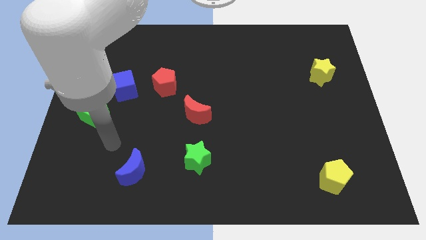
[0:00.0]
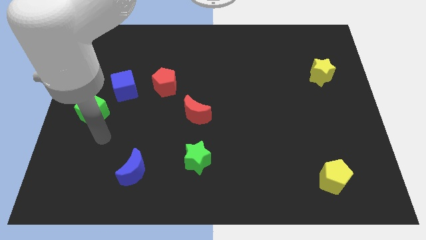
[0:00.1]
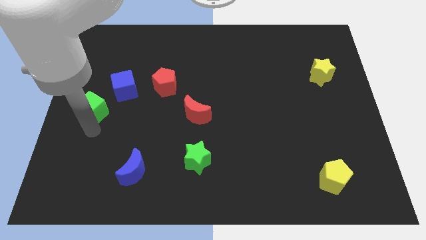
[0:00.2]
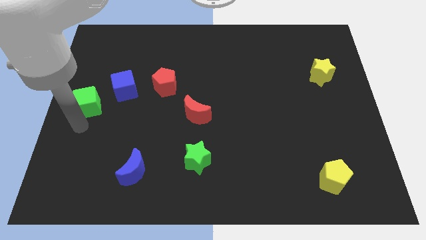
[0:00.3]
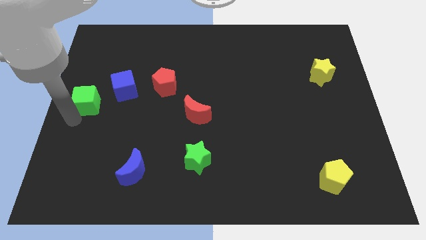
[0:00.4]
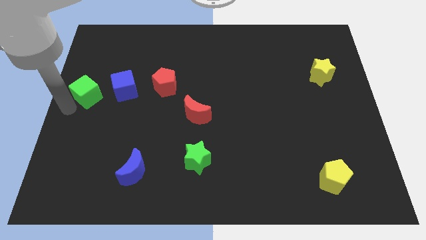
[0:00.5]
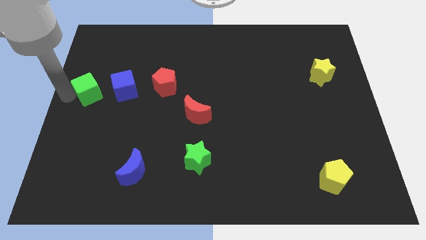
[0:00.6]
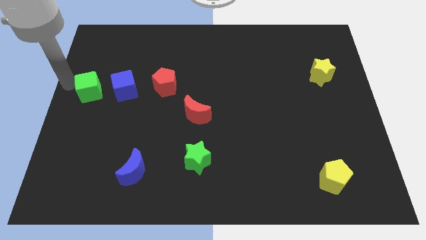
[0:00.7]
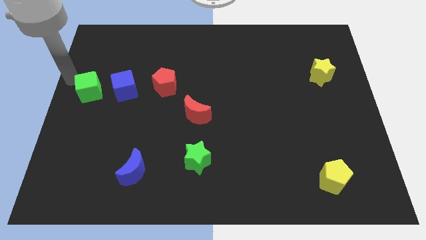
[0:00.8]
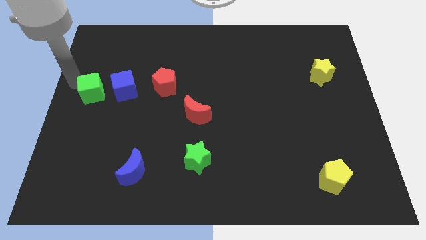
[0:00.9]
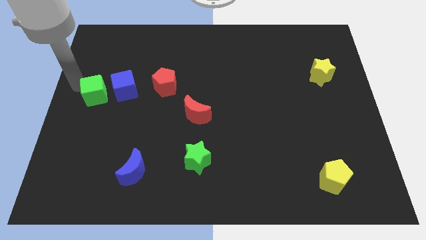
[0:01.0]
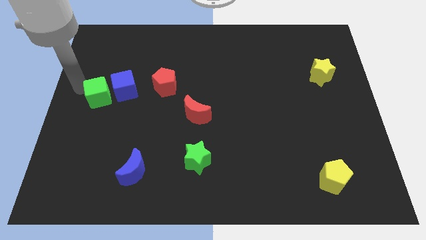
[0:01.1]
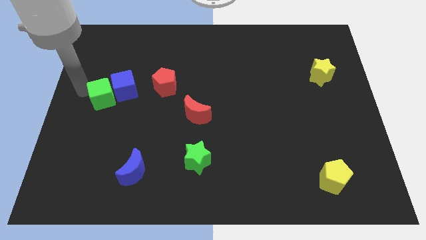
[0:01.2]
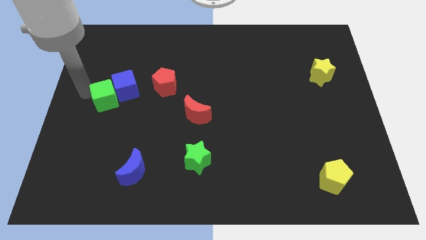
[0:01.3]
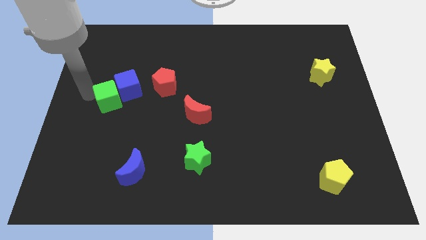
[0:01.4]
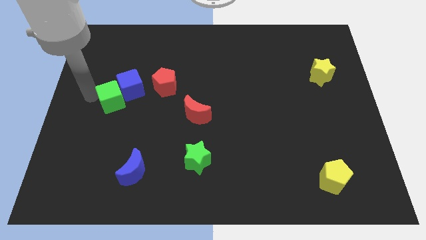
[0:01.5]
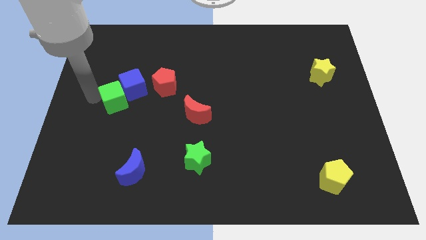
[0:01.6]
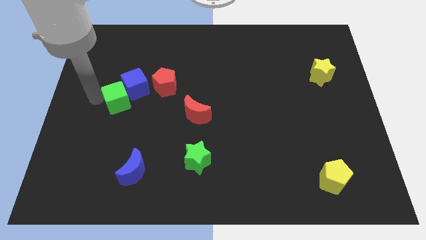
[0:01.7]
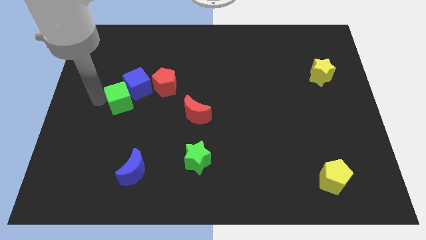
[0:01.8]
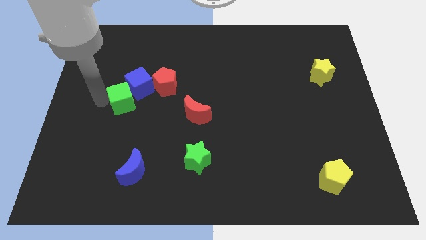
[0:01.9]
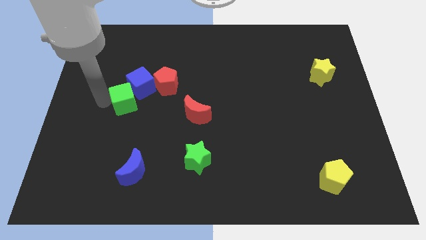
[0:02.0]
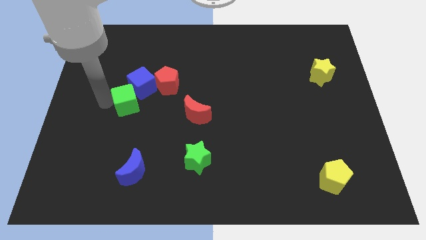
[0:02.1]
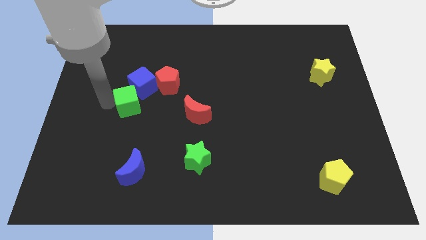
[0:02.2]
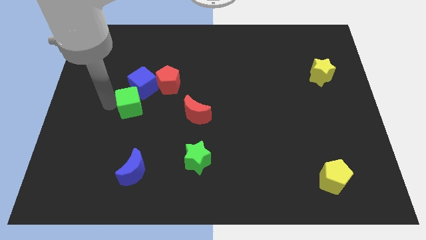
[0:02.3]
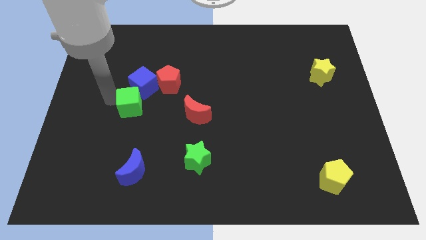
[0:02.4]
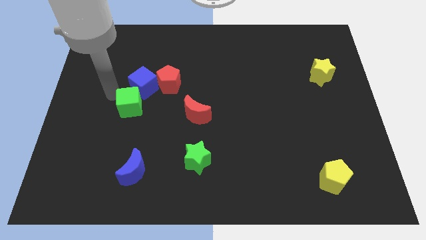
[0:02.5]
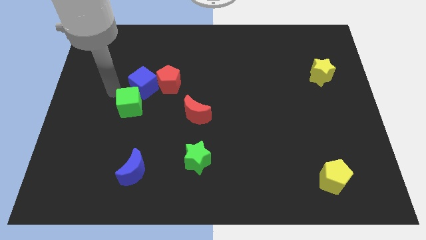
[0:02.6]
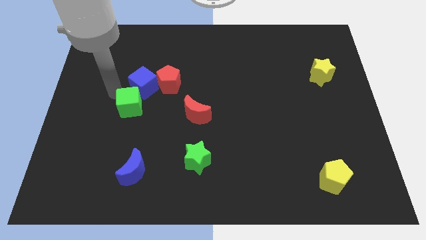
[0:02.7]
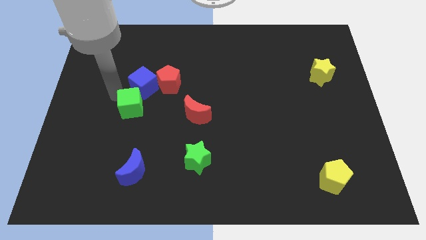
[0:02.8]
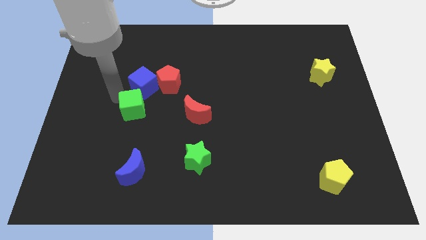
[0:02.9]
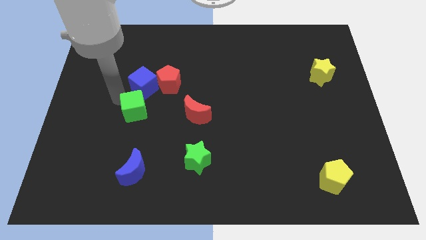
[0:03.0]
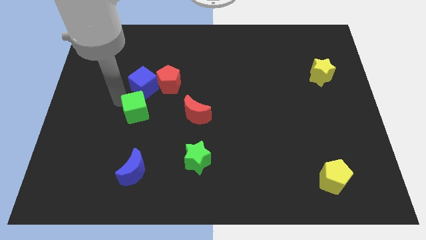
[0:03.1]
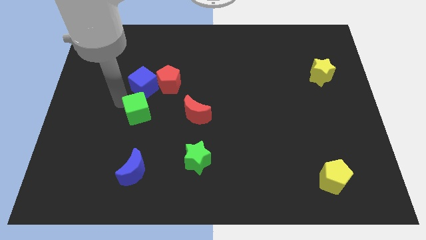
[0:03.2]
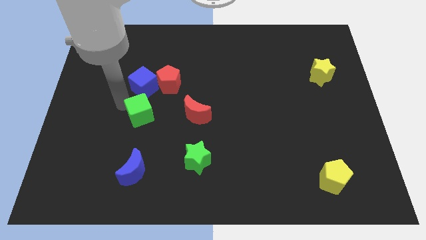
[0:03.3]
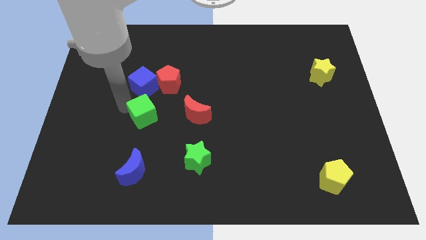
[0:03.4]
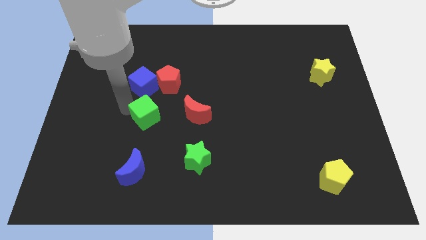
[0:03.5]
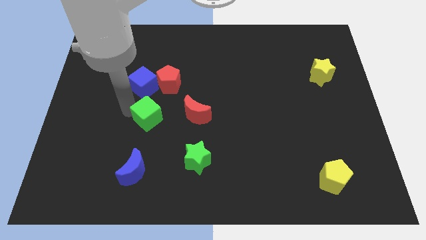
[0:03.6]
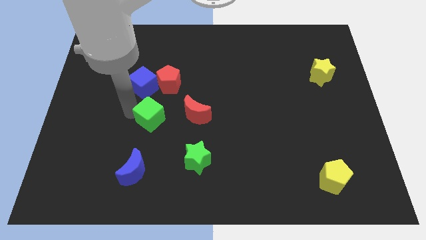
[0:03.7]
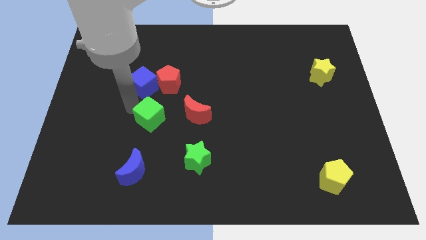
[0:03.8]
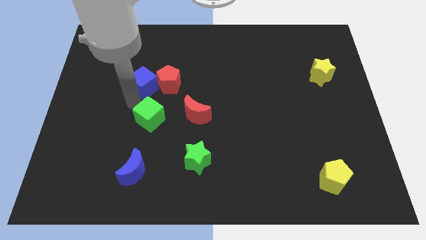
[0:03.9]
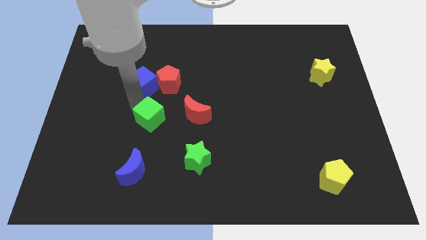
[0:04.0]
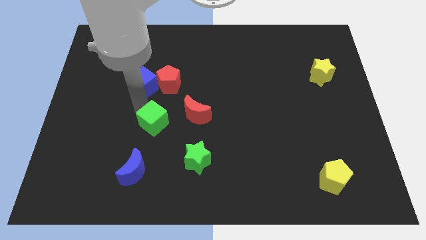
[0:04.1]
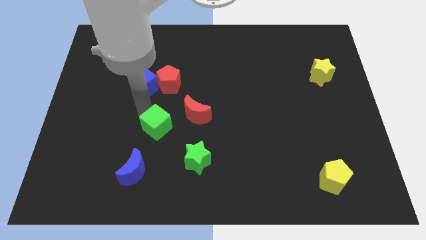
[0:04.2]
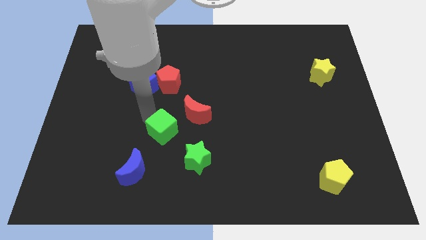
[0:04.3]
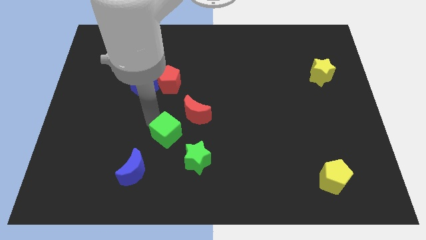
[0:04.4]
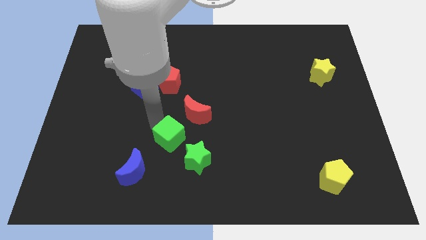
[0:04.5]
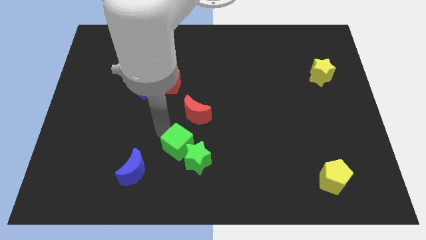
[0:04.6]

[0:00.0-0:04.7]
slide the green cube towards the green star

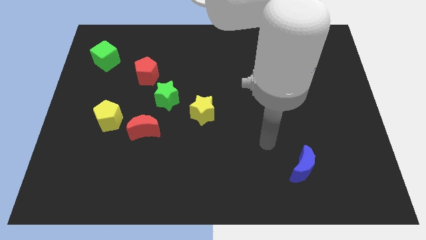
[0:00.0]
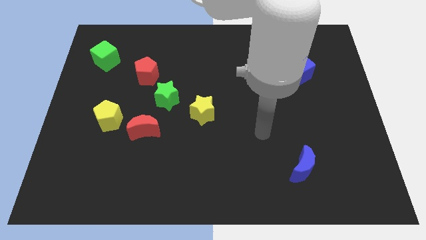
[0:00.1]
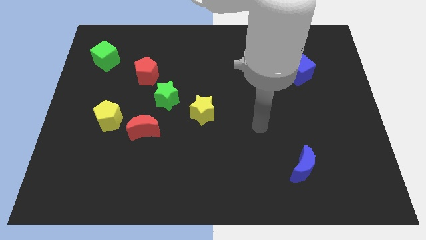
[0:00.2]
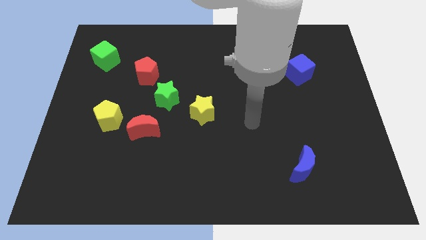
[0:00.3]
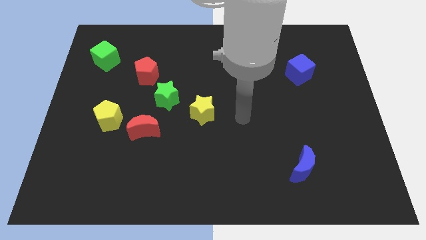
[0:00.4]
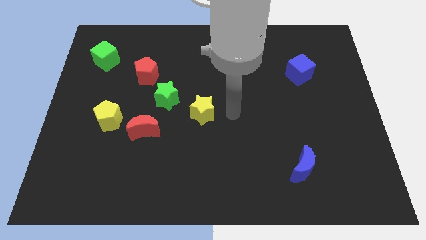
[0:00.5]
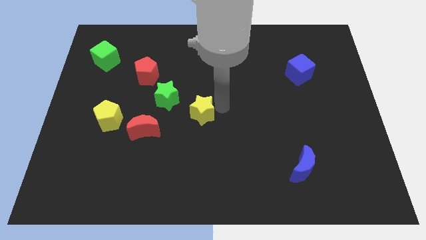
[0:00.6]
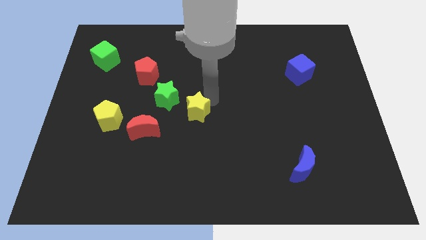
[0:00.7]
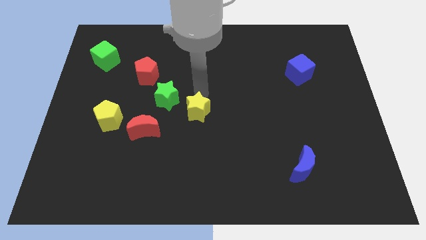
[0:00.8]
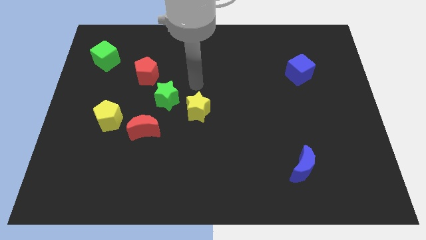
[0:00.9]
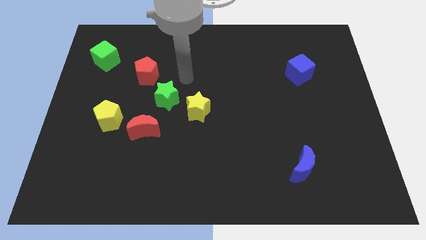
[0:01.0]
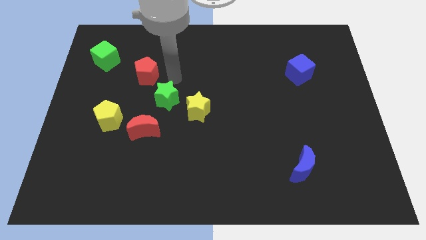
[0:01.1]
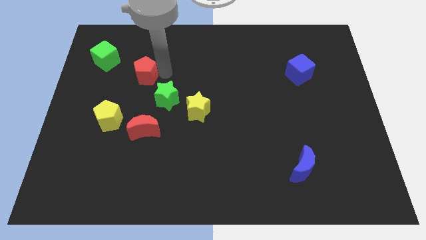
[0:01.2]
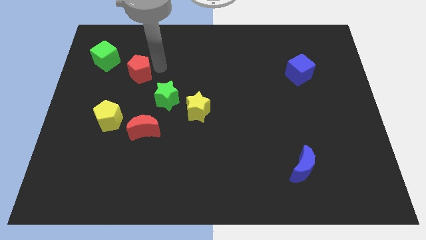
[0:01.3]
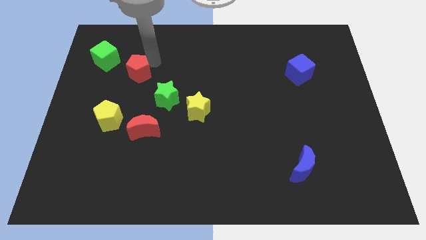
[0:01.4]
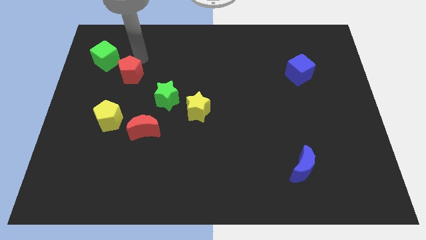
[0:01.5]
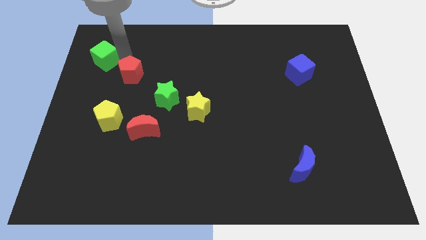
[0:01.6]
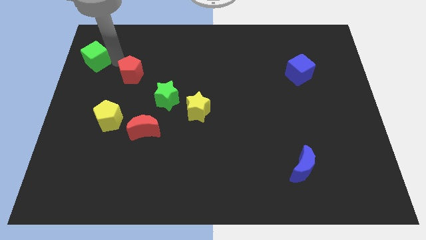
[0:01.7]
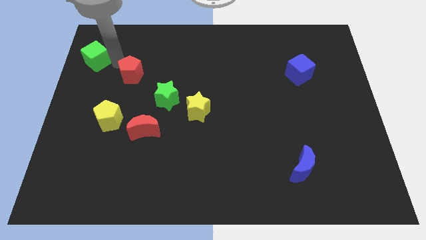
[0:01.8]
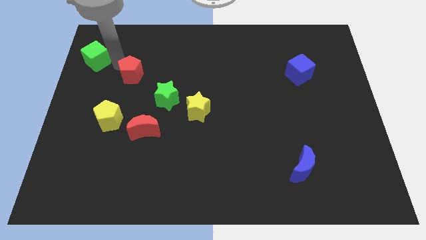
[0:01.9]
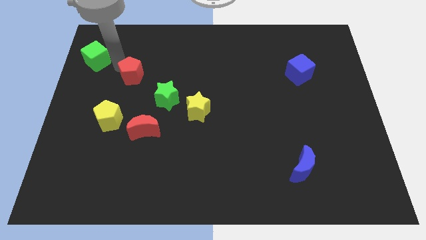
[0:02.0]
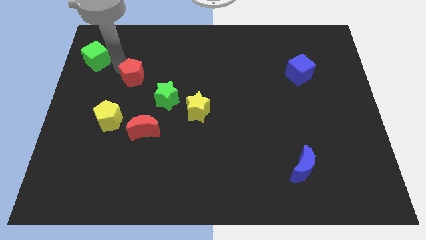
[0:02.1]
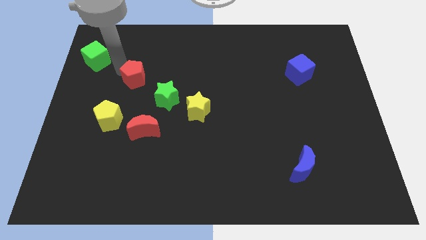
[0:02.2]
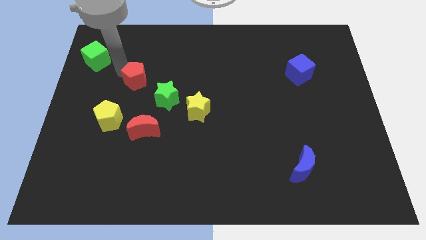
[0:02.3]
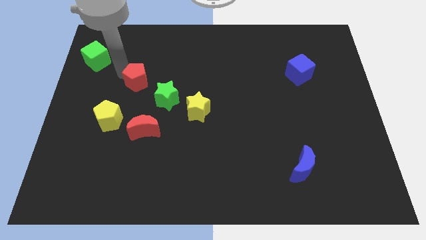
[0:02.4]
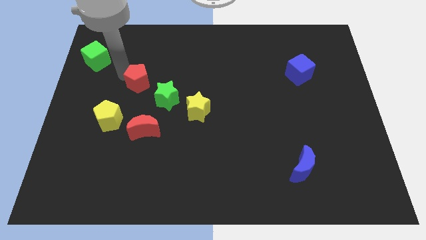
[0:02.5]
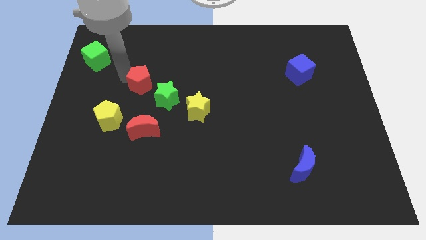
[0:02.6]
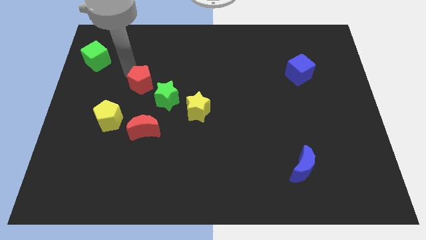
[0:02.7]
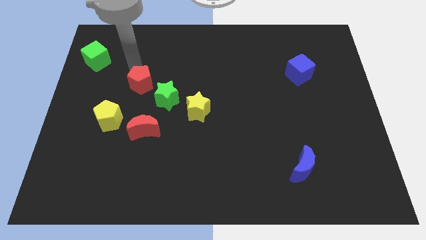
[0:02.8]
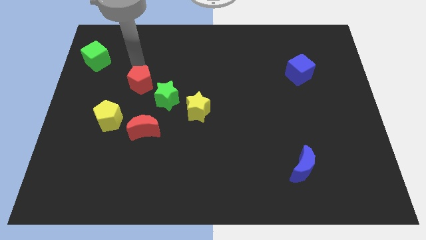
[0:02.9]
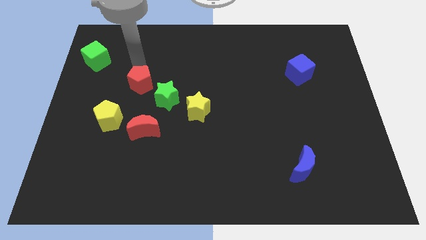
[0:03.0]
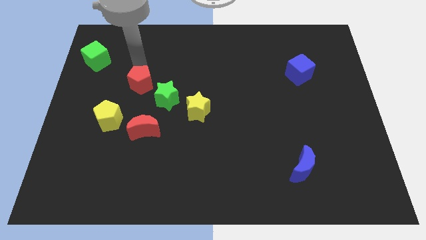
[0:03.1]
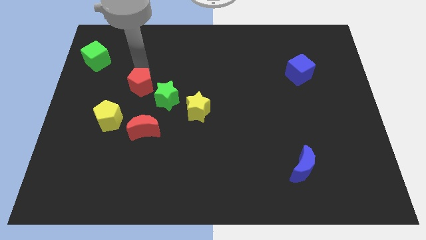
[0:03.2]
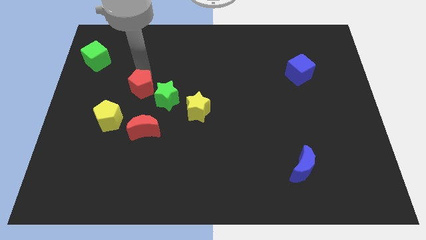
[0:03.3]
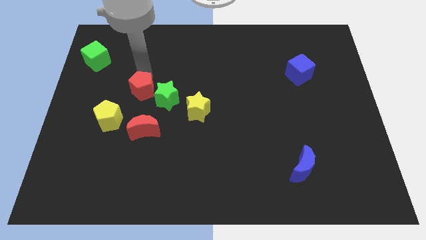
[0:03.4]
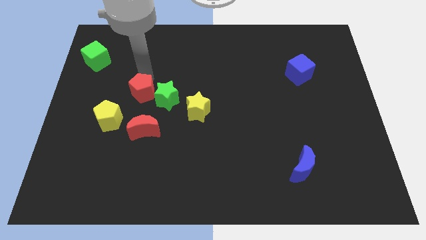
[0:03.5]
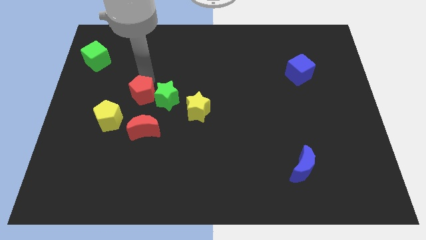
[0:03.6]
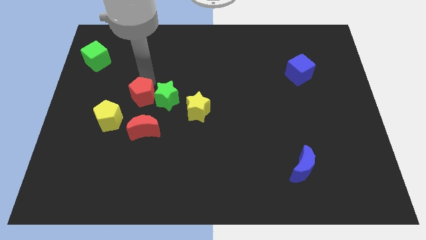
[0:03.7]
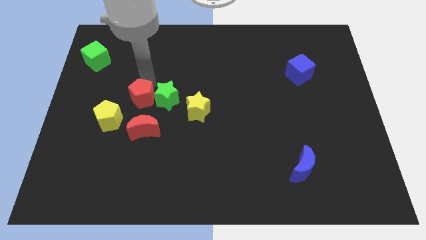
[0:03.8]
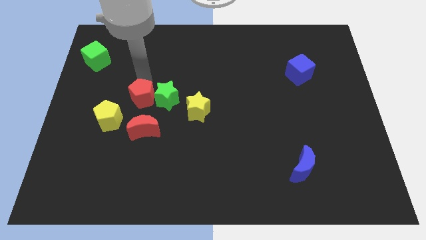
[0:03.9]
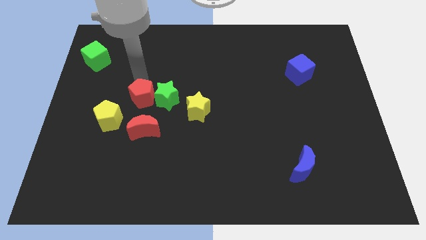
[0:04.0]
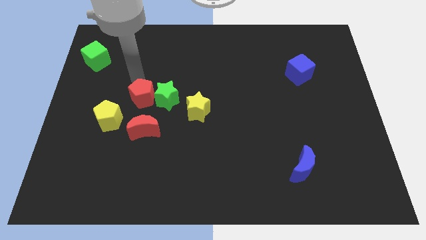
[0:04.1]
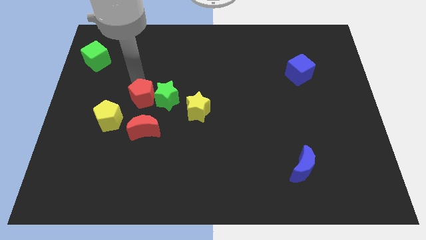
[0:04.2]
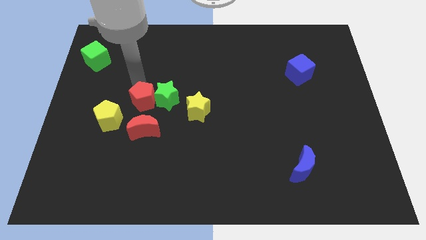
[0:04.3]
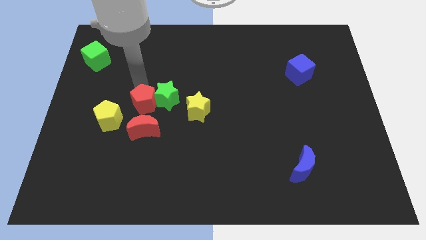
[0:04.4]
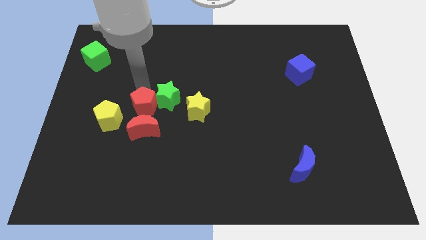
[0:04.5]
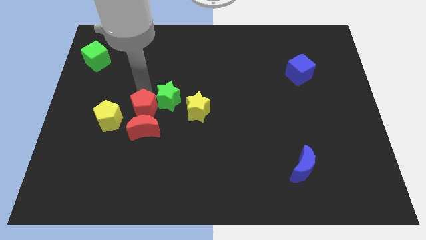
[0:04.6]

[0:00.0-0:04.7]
put the red pentagon next to the red moon
